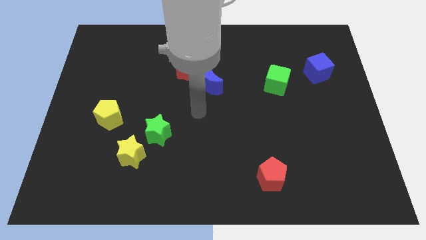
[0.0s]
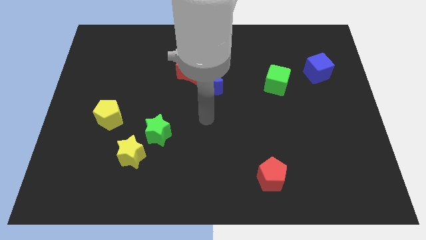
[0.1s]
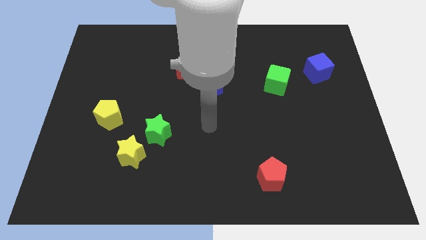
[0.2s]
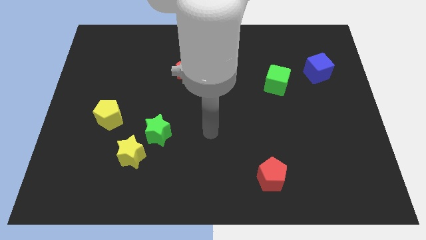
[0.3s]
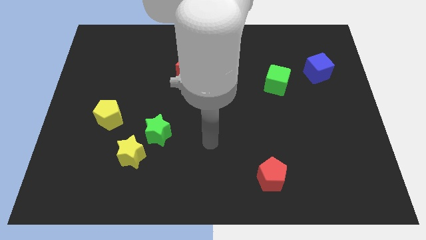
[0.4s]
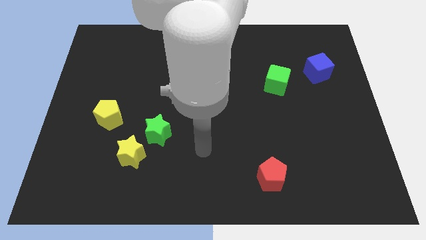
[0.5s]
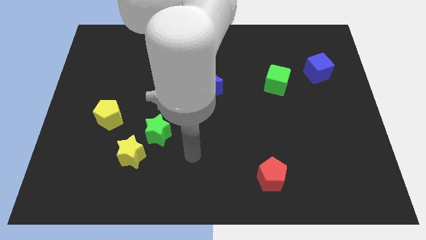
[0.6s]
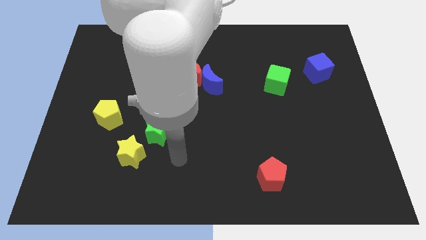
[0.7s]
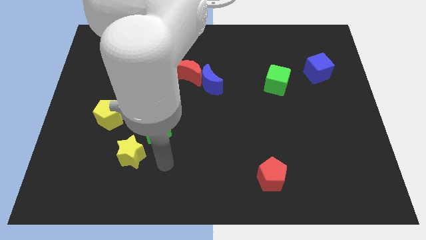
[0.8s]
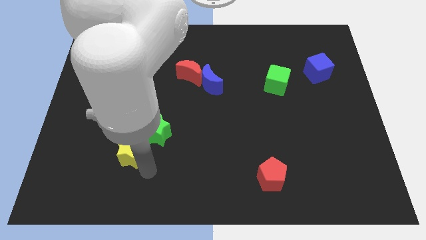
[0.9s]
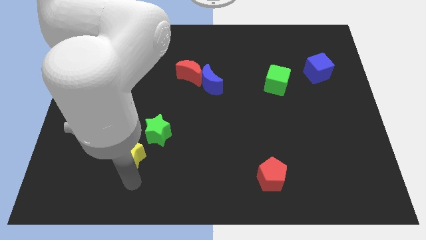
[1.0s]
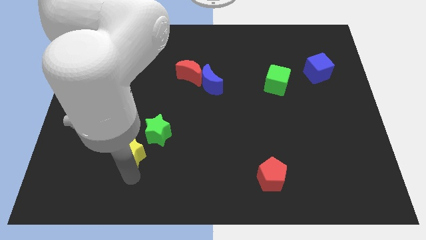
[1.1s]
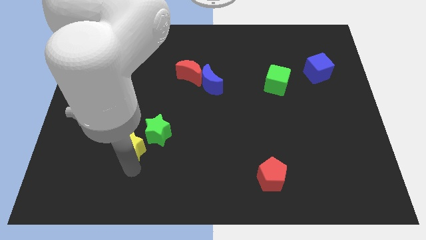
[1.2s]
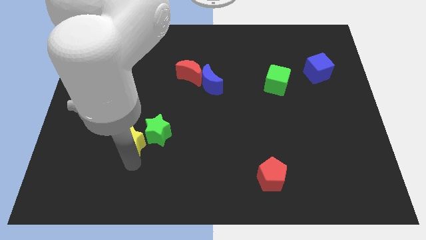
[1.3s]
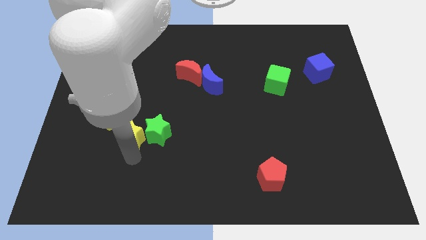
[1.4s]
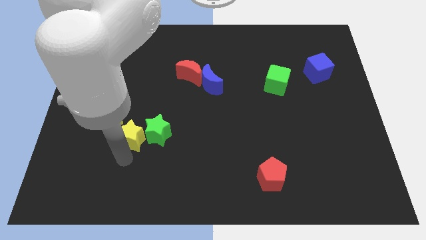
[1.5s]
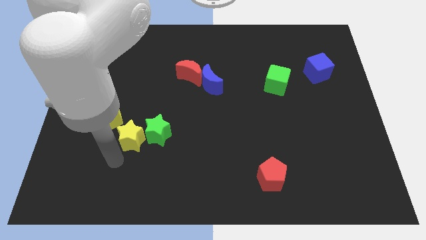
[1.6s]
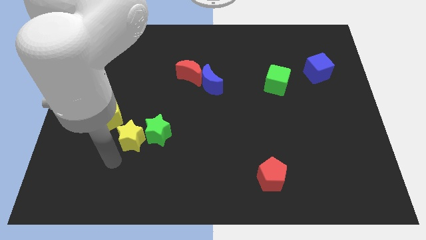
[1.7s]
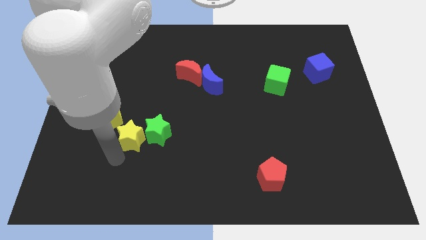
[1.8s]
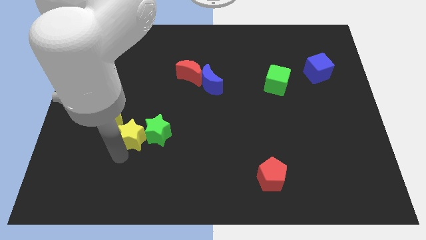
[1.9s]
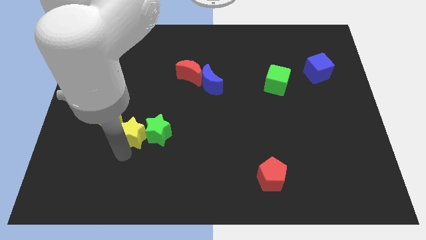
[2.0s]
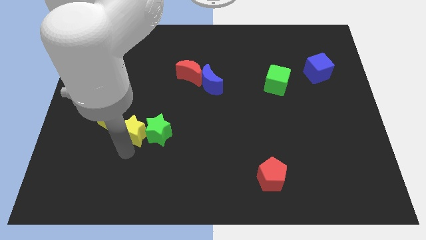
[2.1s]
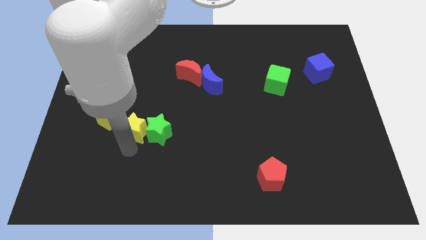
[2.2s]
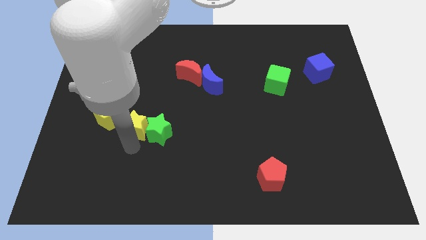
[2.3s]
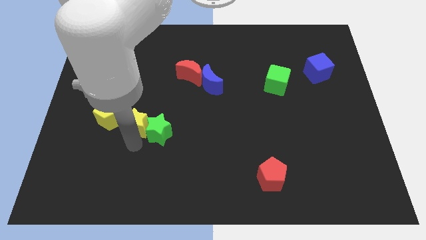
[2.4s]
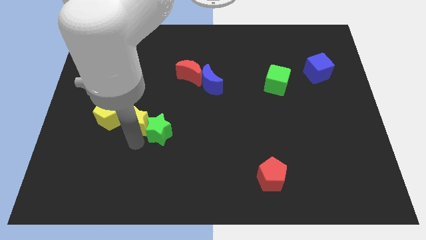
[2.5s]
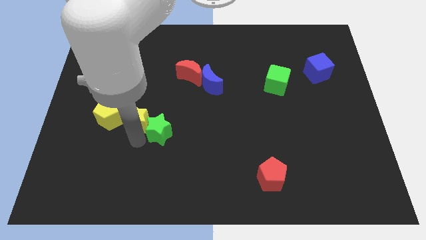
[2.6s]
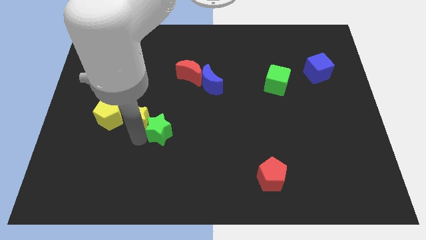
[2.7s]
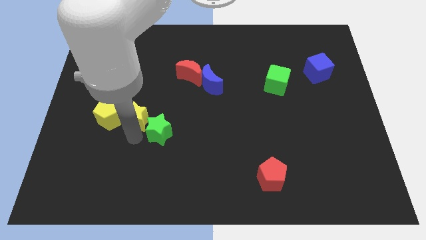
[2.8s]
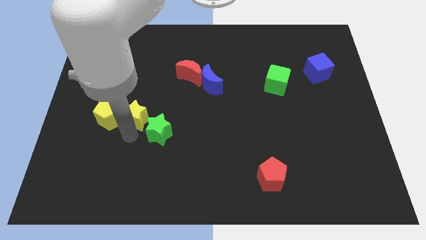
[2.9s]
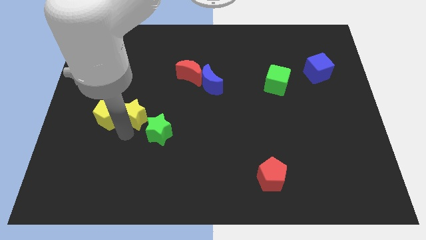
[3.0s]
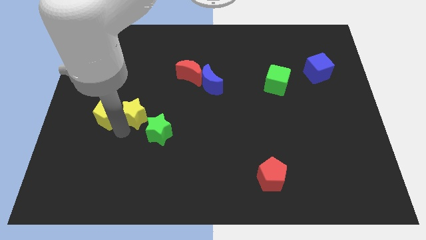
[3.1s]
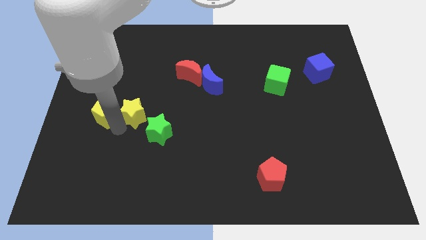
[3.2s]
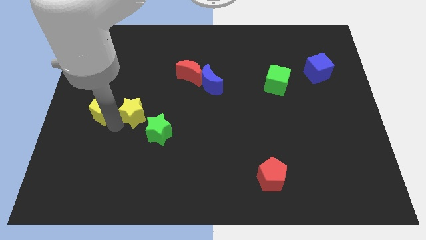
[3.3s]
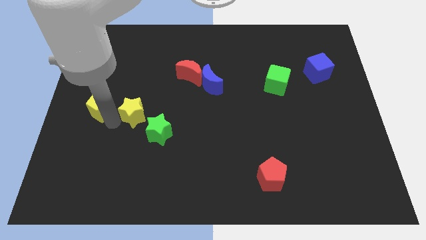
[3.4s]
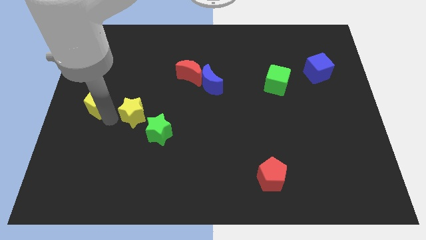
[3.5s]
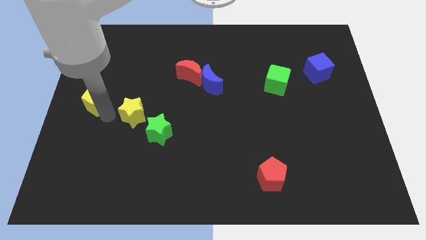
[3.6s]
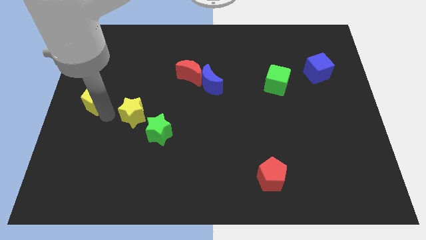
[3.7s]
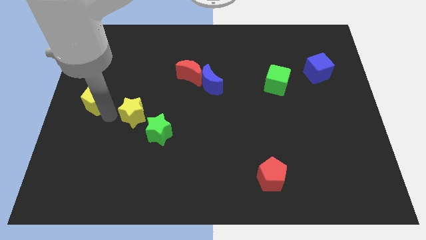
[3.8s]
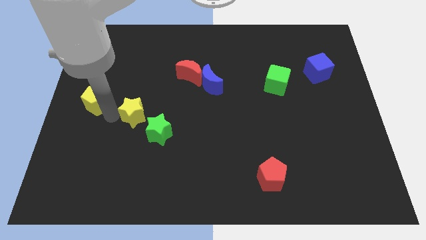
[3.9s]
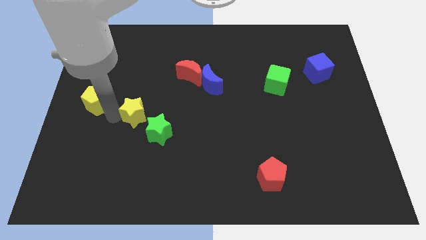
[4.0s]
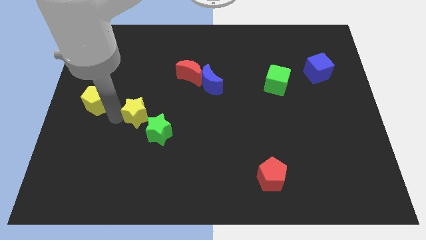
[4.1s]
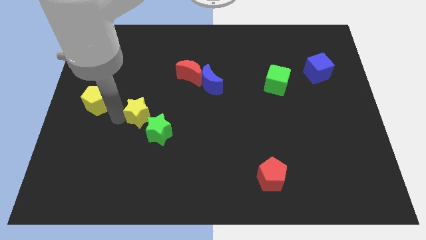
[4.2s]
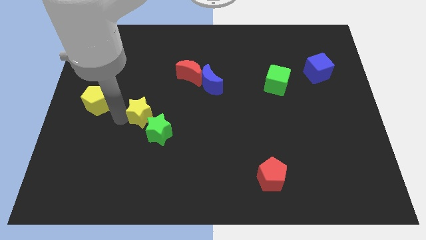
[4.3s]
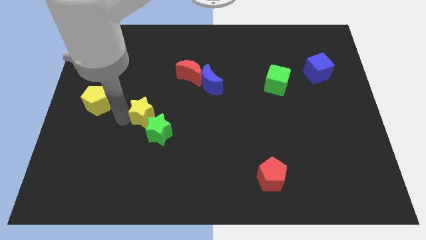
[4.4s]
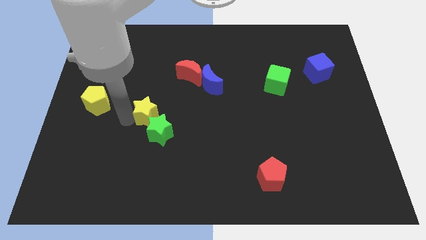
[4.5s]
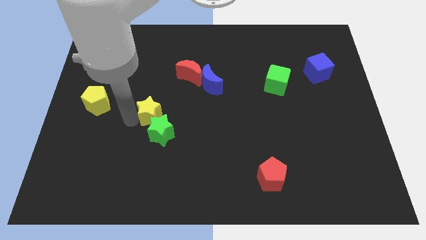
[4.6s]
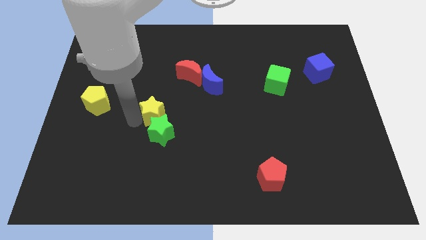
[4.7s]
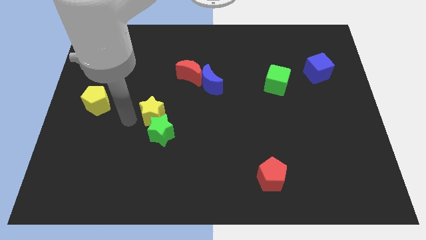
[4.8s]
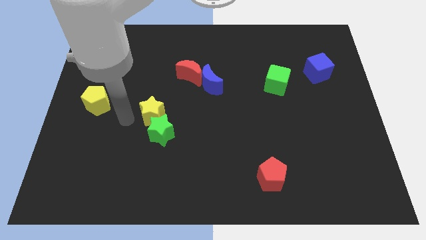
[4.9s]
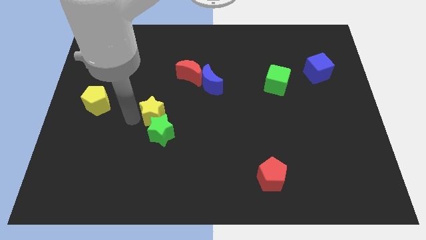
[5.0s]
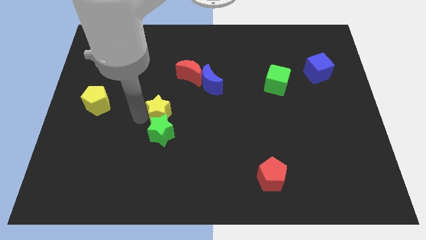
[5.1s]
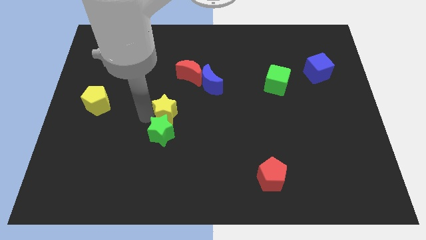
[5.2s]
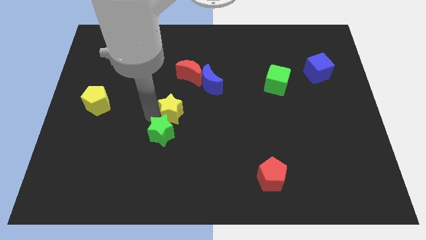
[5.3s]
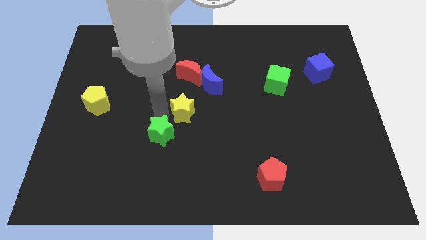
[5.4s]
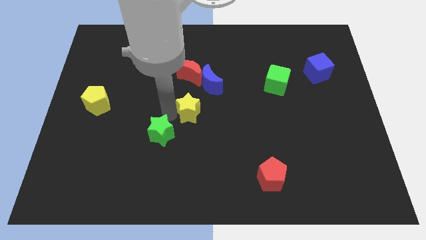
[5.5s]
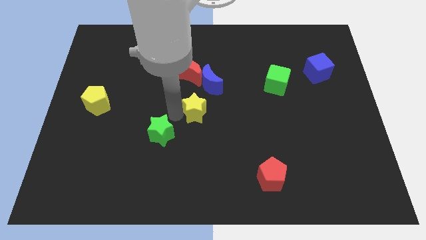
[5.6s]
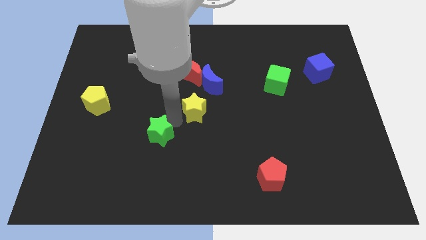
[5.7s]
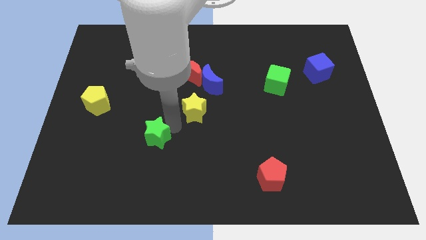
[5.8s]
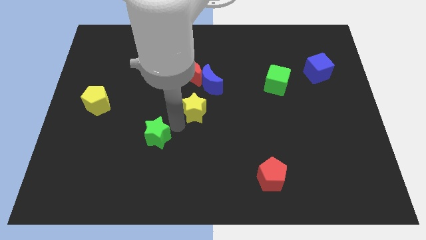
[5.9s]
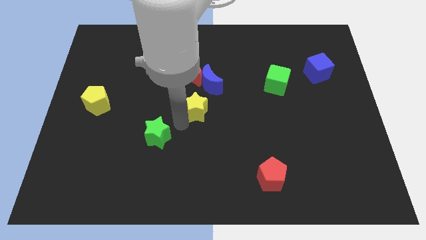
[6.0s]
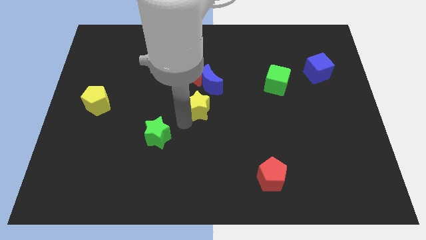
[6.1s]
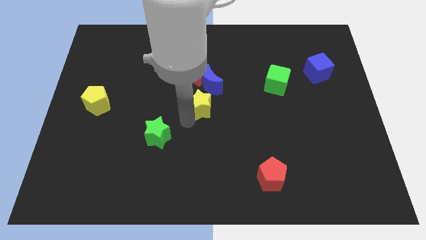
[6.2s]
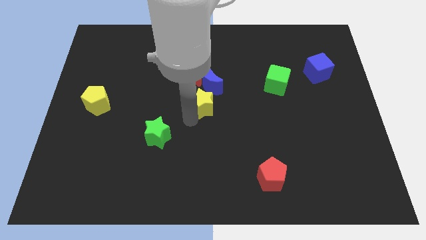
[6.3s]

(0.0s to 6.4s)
move the yellow star up and right diagonally

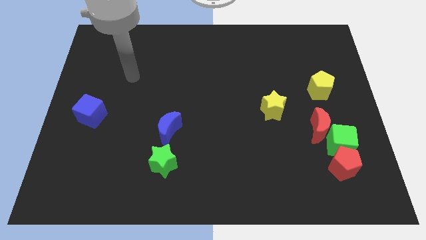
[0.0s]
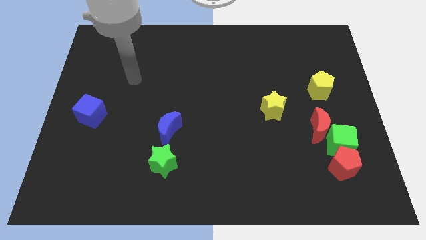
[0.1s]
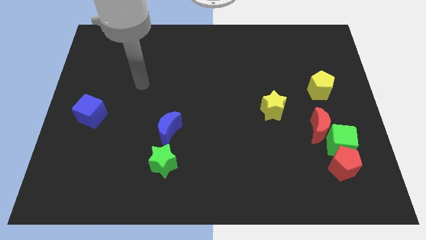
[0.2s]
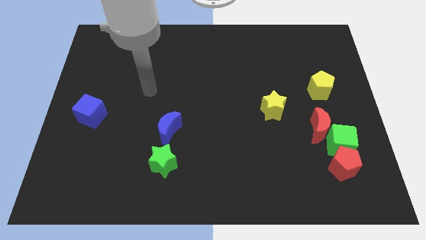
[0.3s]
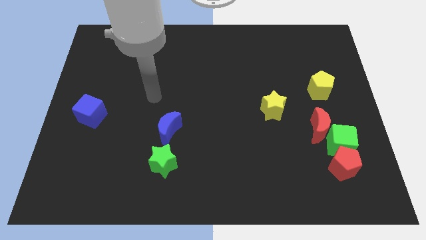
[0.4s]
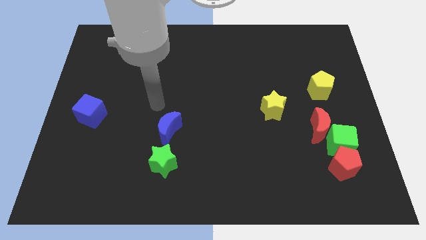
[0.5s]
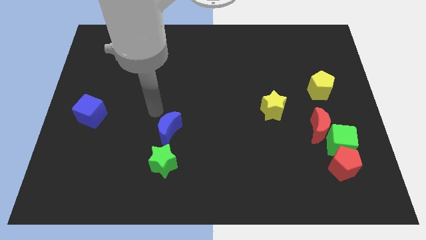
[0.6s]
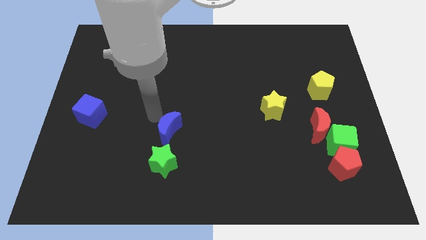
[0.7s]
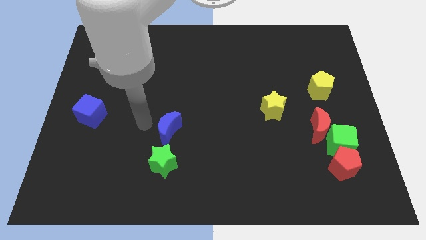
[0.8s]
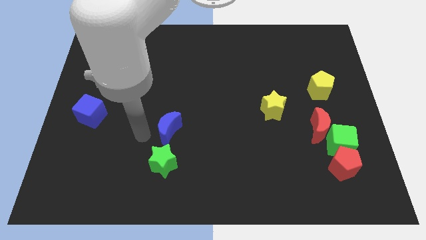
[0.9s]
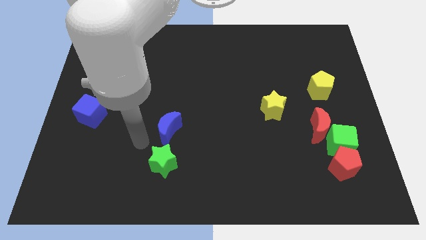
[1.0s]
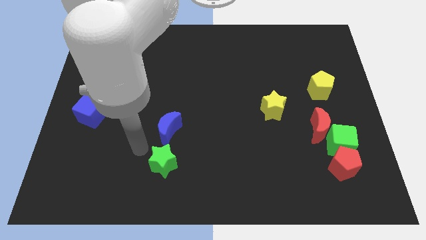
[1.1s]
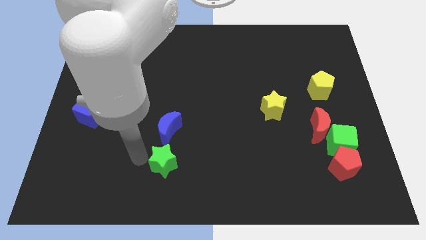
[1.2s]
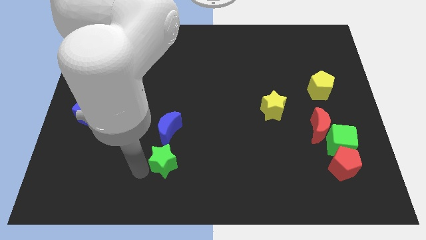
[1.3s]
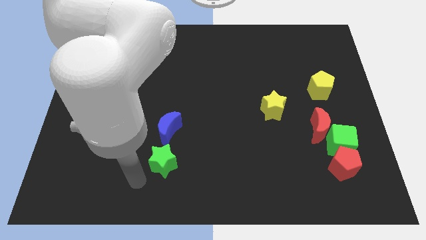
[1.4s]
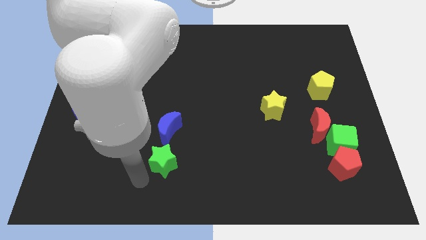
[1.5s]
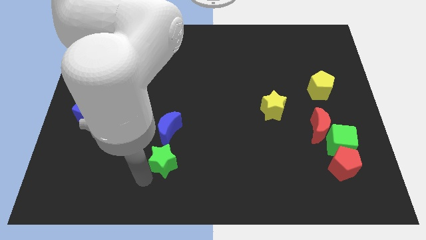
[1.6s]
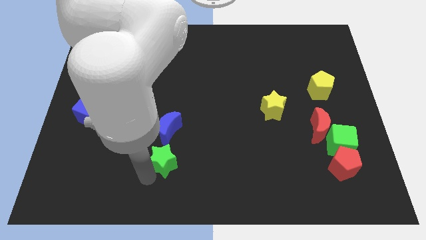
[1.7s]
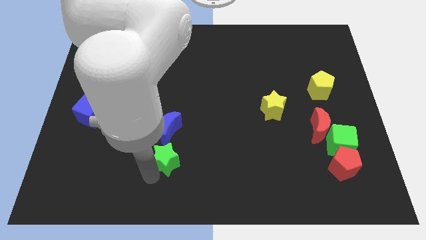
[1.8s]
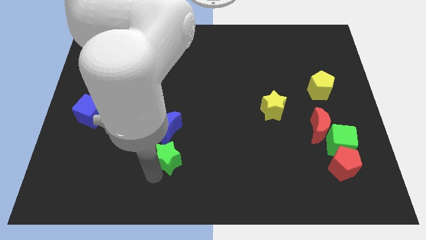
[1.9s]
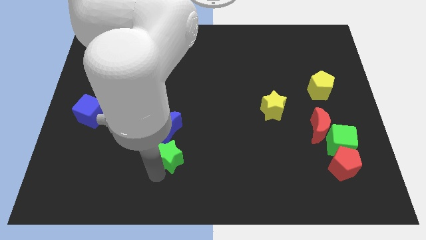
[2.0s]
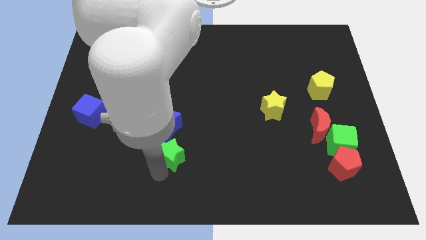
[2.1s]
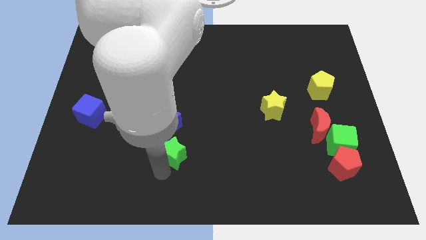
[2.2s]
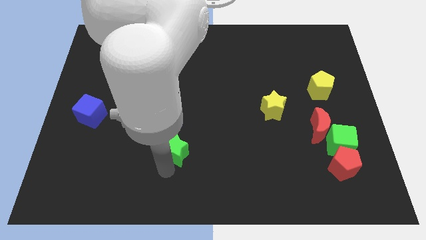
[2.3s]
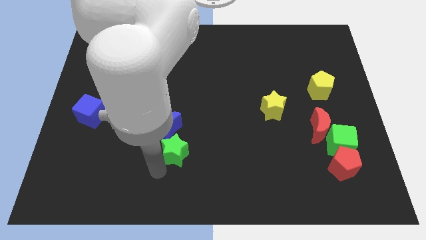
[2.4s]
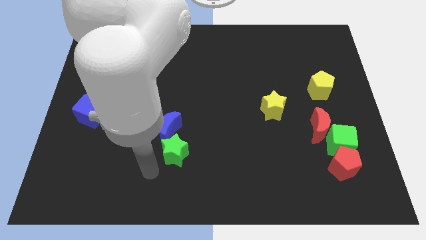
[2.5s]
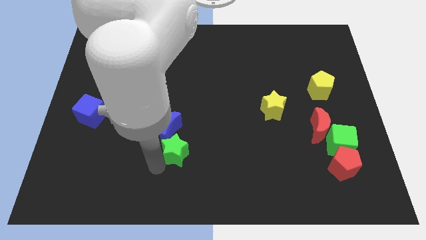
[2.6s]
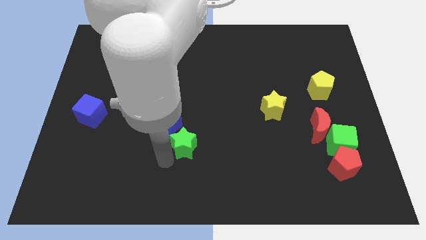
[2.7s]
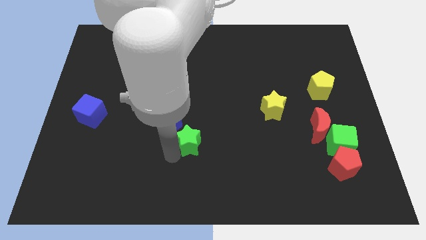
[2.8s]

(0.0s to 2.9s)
slide the green star diagonally up and right slightly
